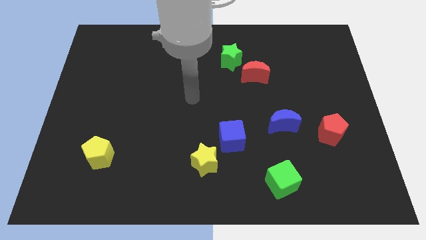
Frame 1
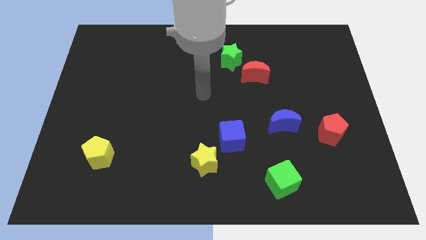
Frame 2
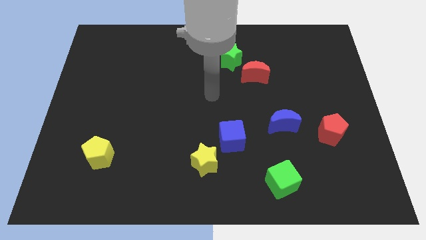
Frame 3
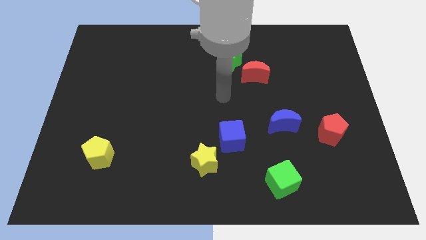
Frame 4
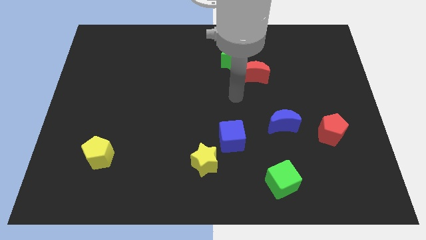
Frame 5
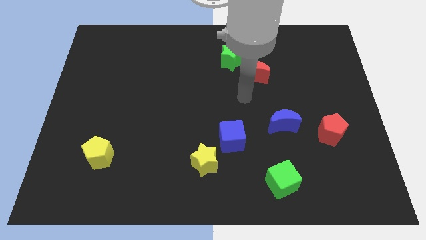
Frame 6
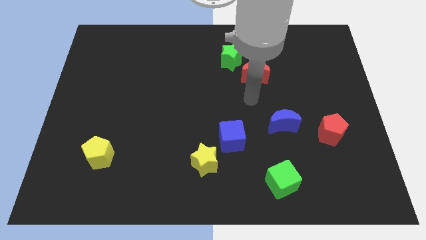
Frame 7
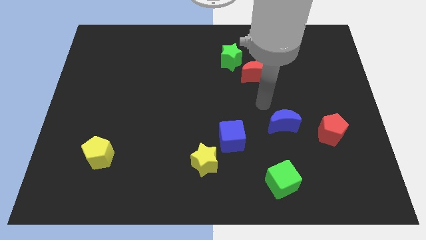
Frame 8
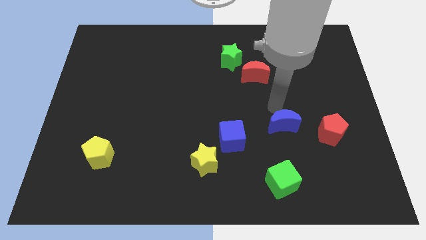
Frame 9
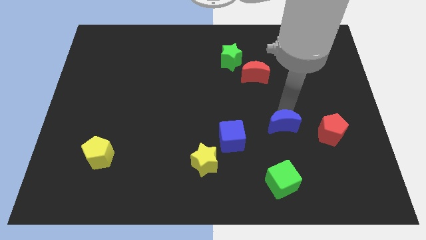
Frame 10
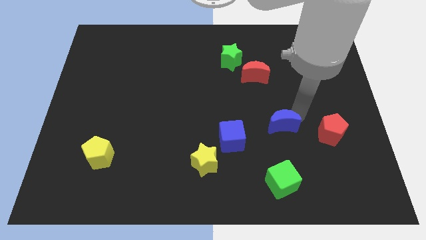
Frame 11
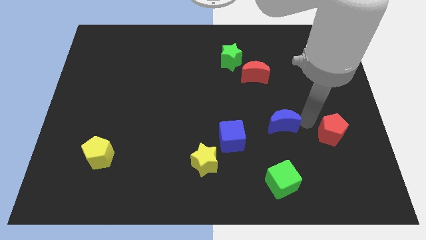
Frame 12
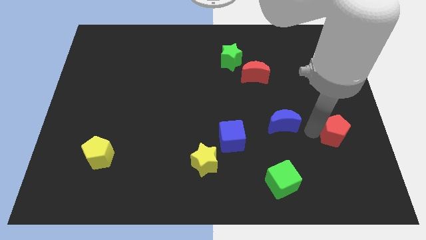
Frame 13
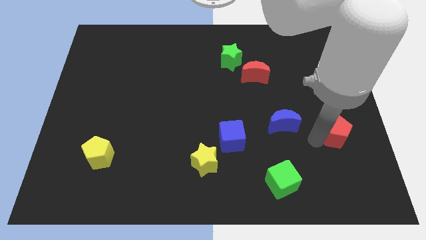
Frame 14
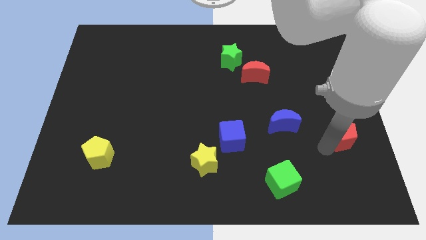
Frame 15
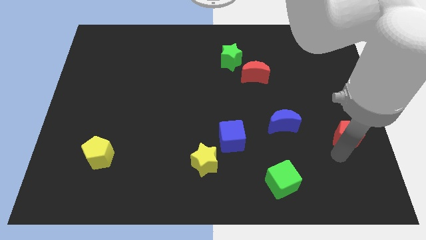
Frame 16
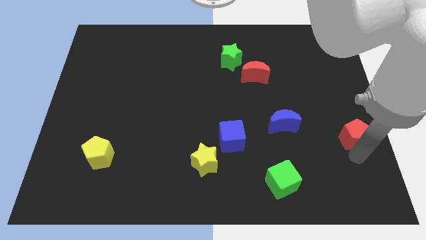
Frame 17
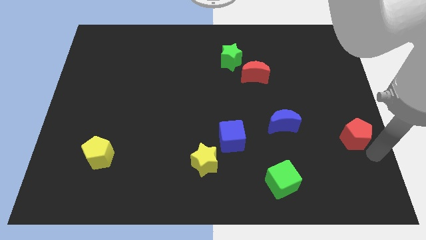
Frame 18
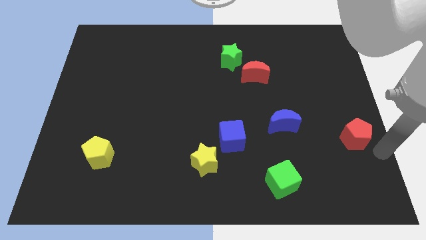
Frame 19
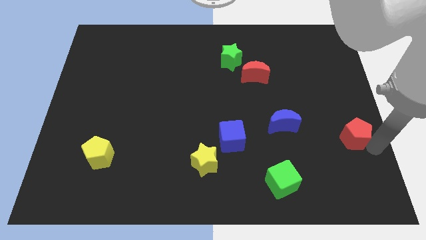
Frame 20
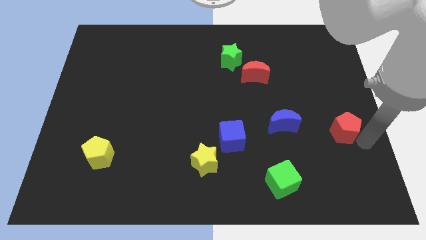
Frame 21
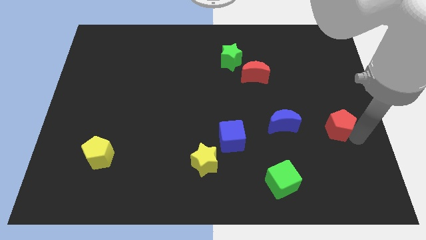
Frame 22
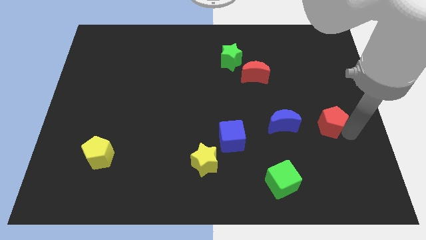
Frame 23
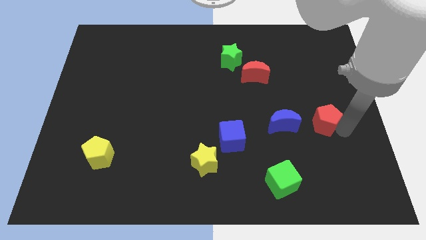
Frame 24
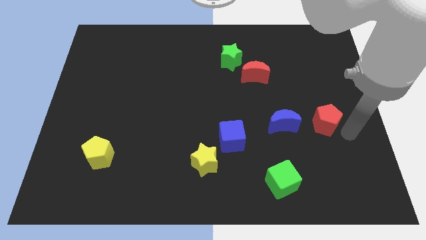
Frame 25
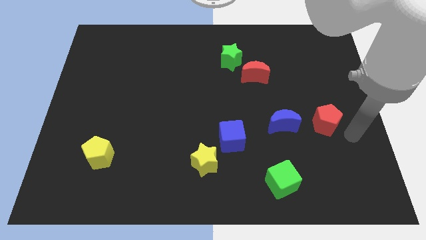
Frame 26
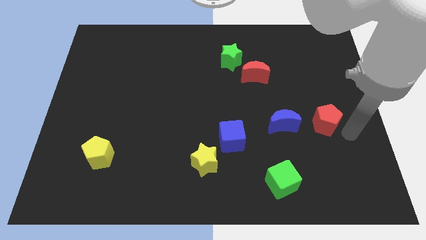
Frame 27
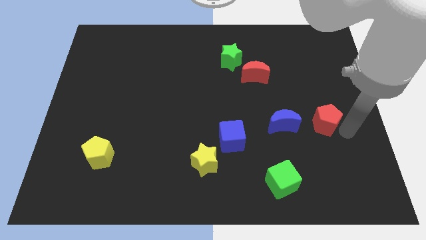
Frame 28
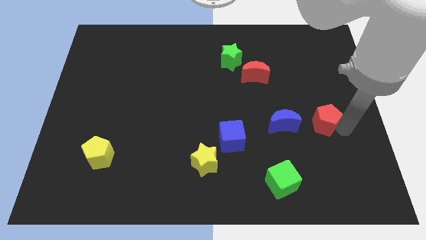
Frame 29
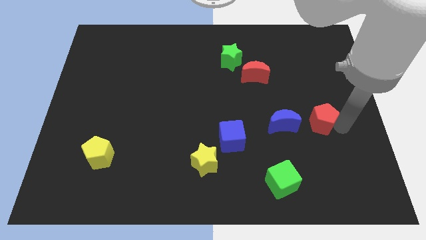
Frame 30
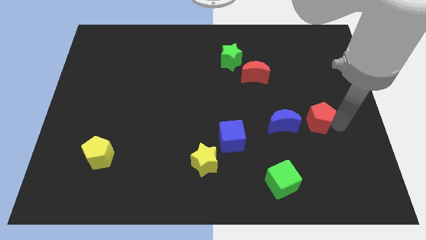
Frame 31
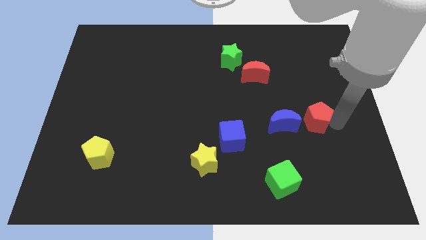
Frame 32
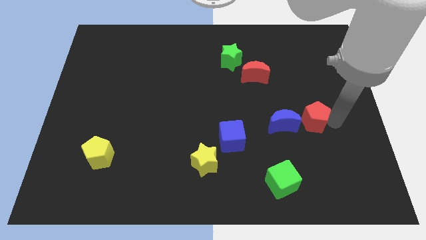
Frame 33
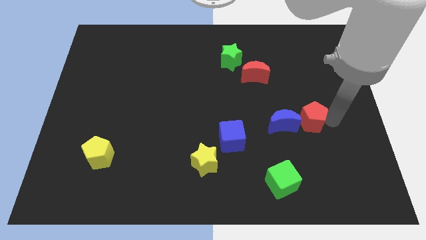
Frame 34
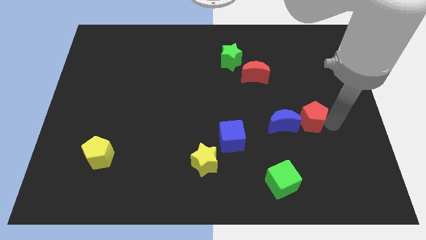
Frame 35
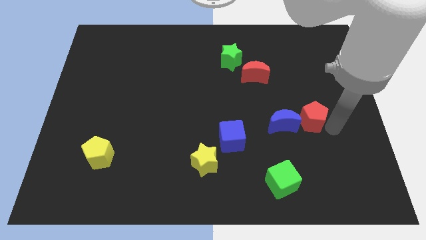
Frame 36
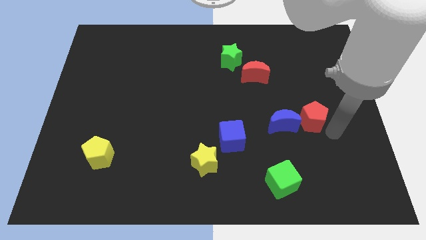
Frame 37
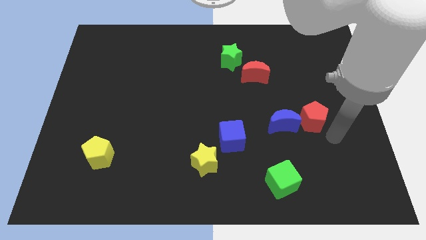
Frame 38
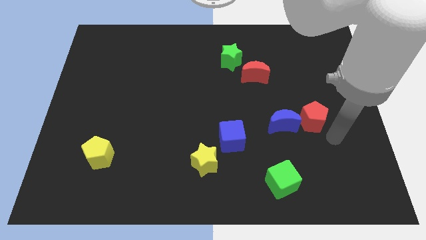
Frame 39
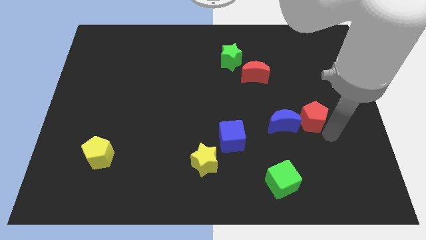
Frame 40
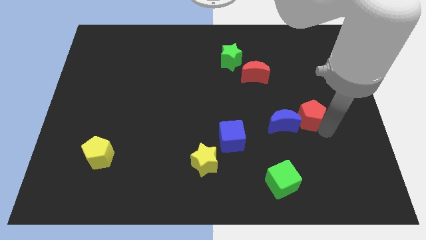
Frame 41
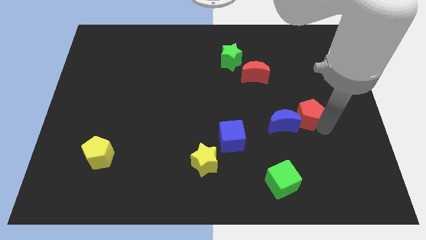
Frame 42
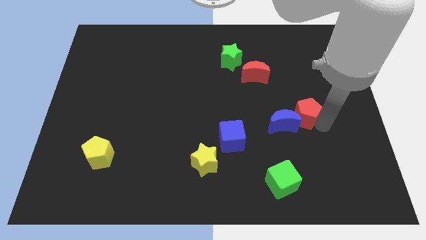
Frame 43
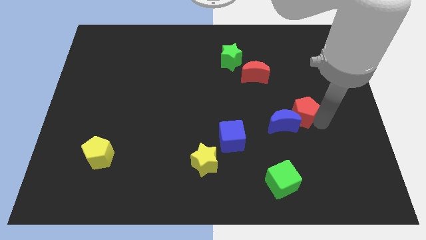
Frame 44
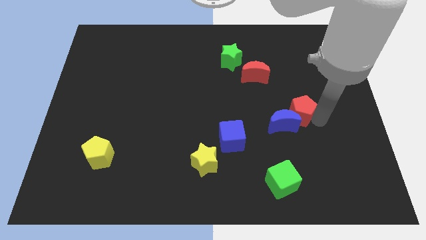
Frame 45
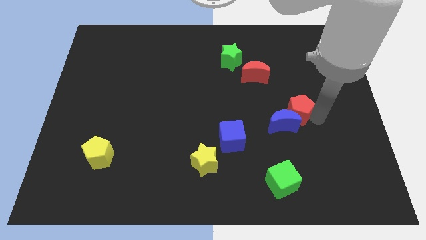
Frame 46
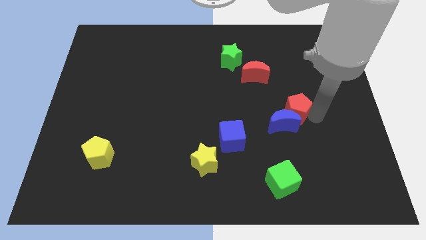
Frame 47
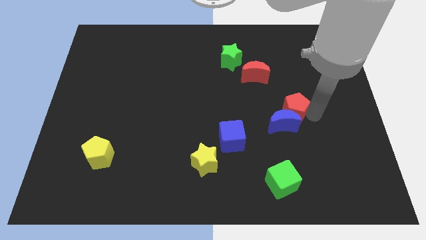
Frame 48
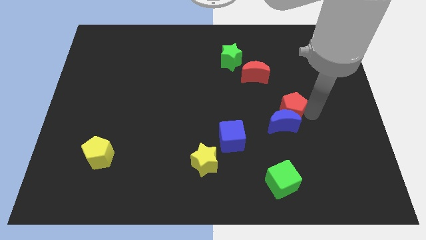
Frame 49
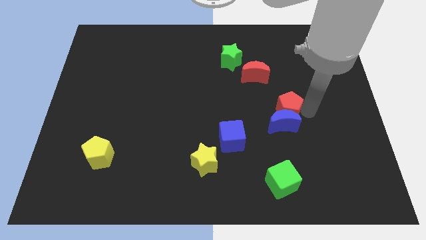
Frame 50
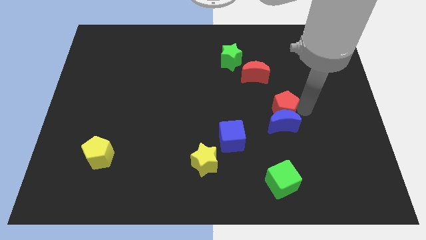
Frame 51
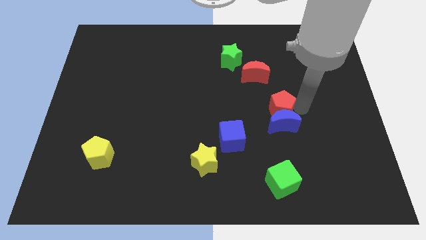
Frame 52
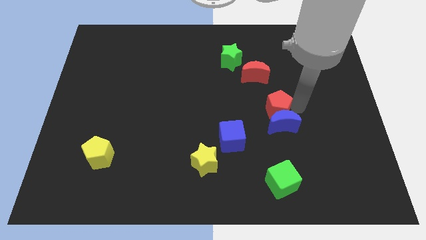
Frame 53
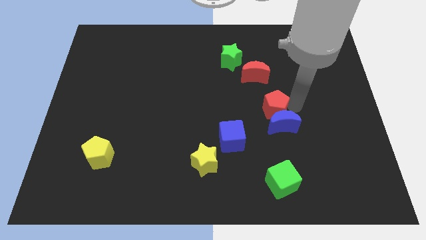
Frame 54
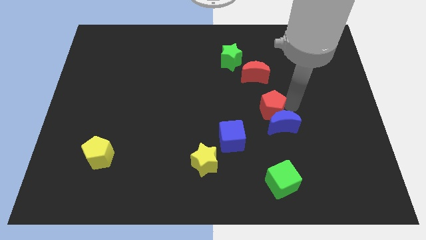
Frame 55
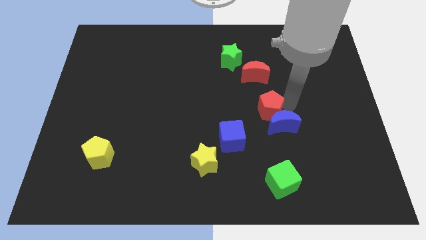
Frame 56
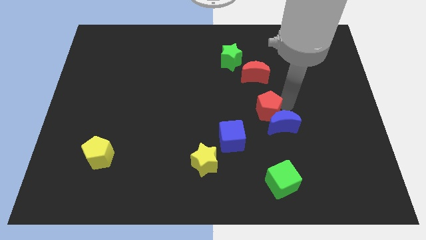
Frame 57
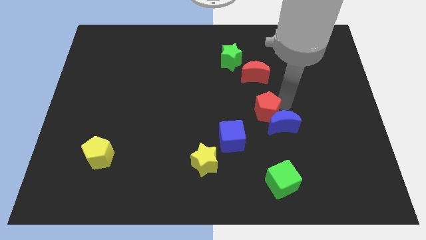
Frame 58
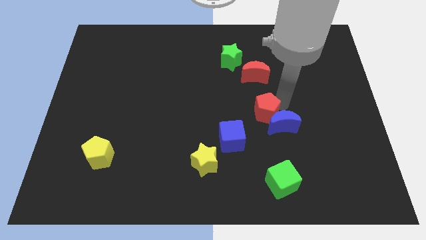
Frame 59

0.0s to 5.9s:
push the red pentagon to the middle of the board
